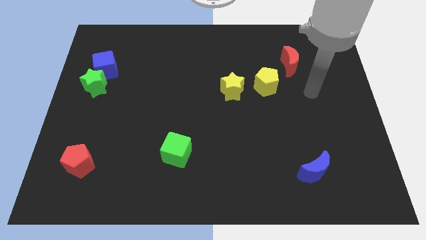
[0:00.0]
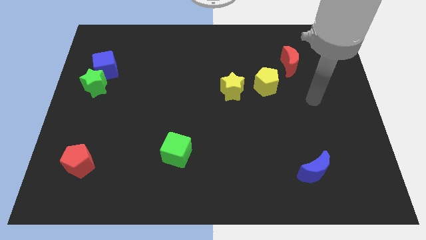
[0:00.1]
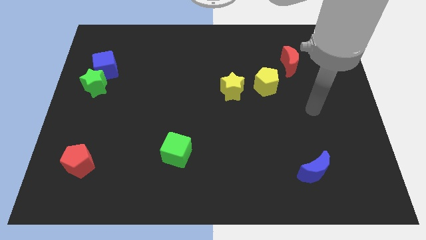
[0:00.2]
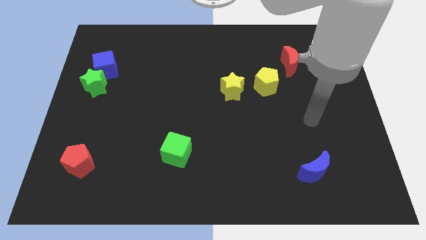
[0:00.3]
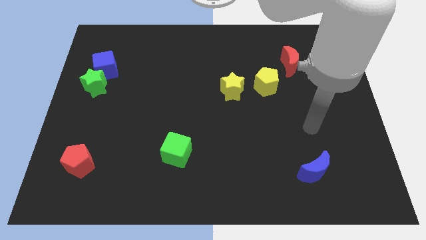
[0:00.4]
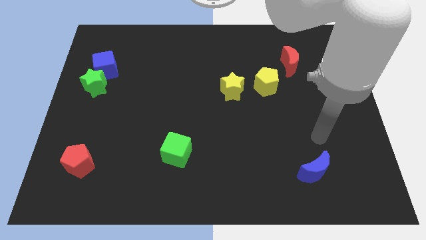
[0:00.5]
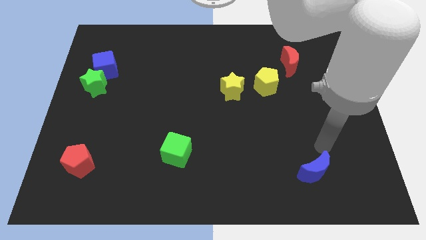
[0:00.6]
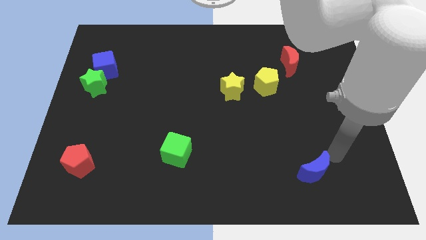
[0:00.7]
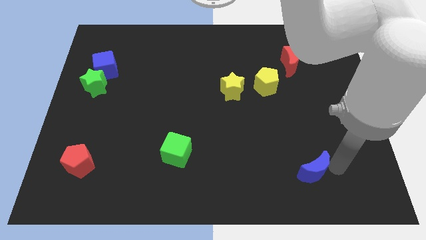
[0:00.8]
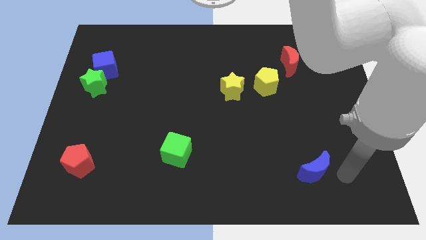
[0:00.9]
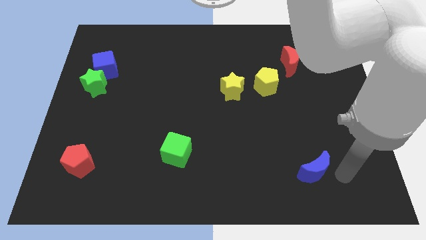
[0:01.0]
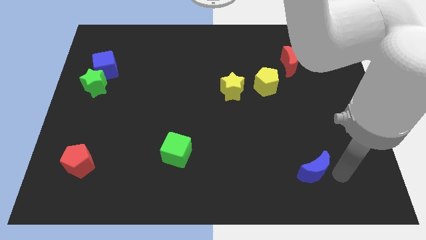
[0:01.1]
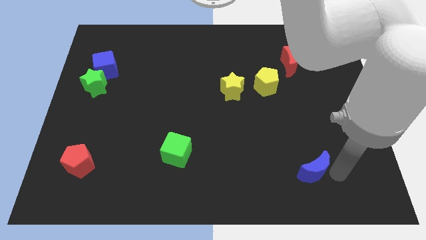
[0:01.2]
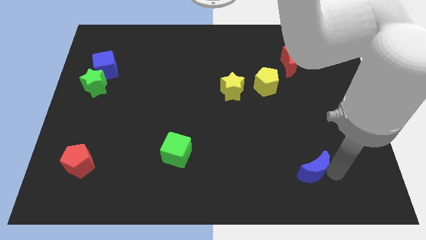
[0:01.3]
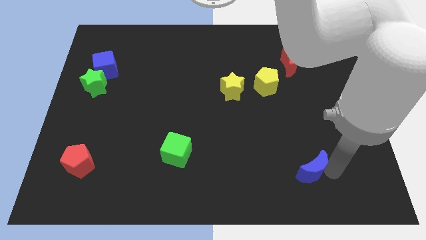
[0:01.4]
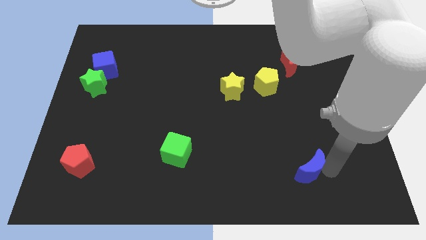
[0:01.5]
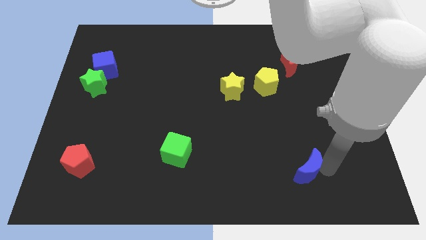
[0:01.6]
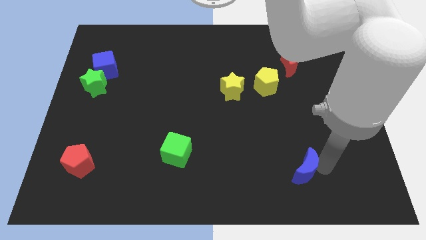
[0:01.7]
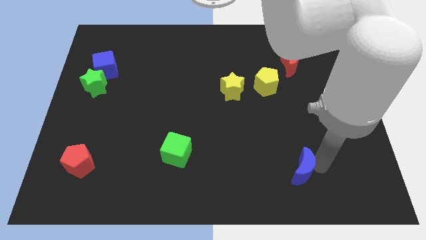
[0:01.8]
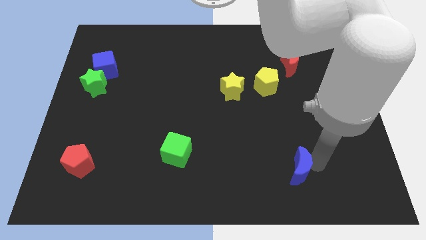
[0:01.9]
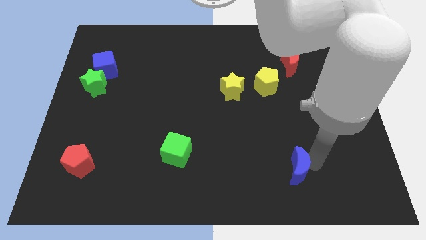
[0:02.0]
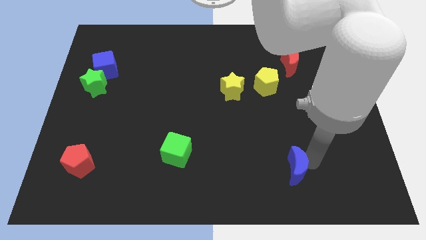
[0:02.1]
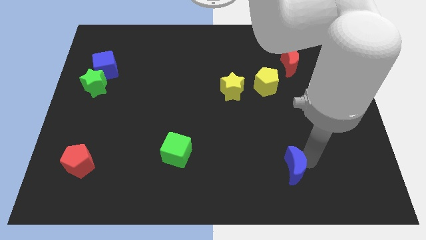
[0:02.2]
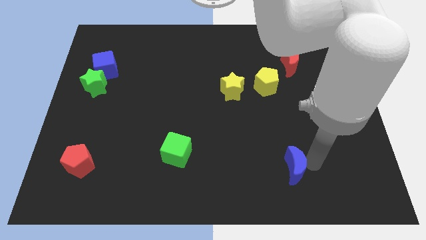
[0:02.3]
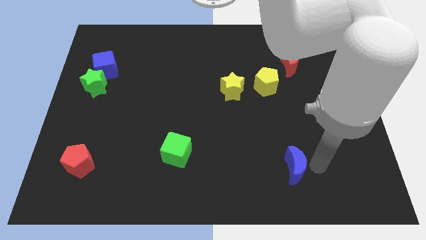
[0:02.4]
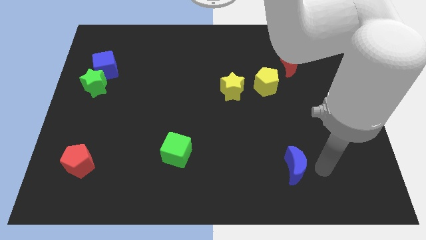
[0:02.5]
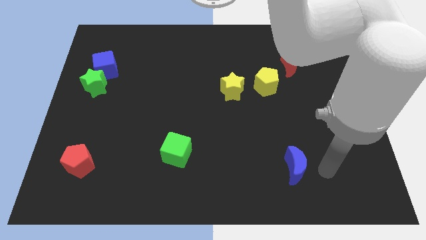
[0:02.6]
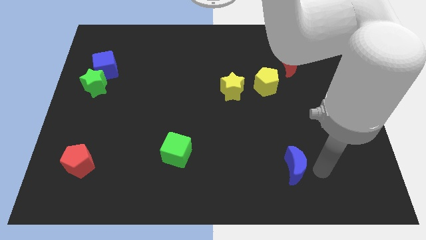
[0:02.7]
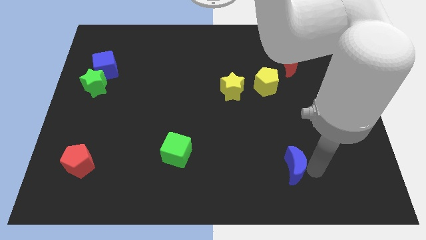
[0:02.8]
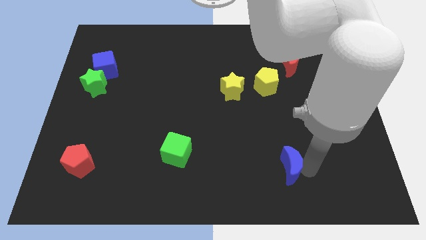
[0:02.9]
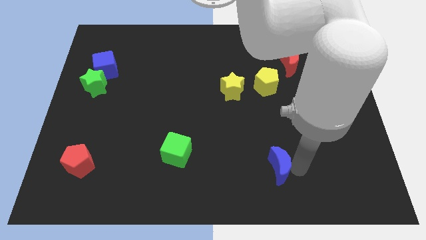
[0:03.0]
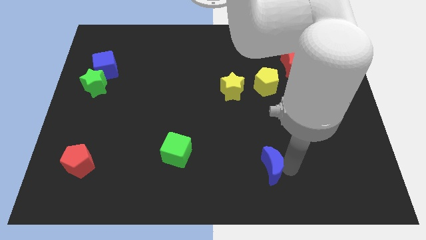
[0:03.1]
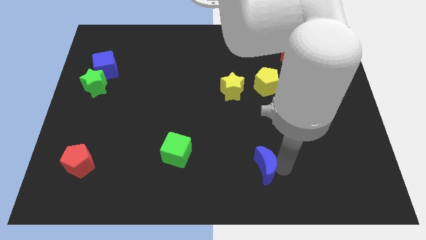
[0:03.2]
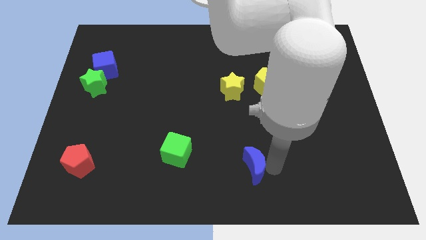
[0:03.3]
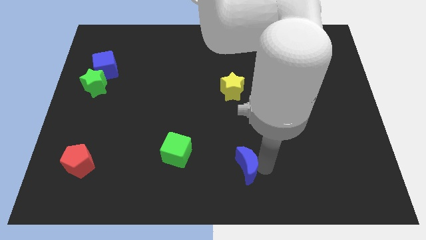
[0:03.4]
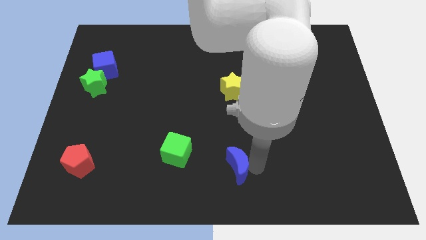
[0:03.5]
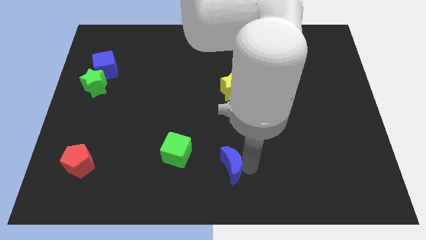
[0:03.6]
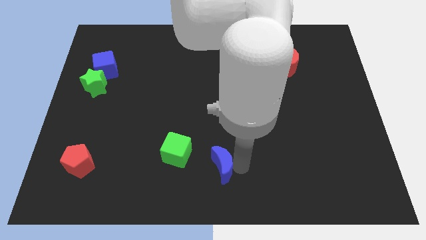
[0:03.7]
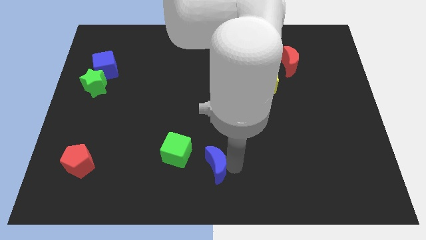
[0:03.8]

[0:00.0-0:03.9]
slide the blue moon left

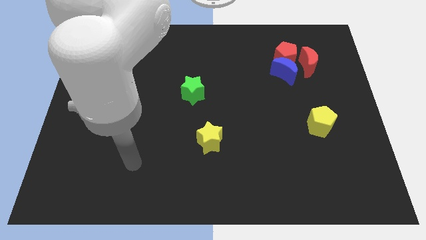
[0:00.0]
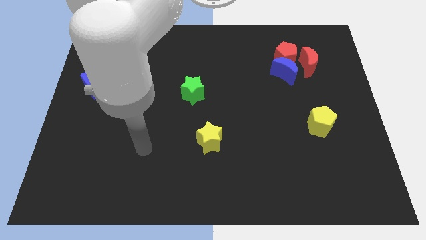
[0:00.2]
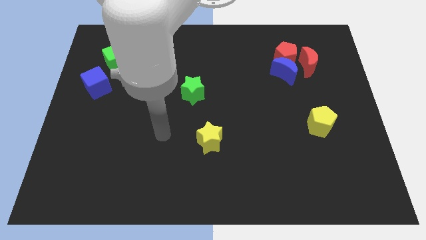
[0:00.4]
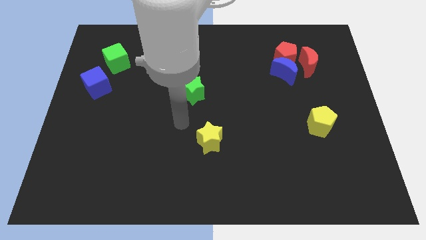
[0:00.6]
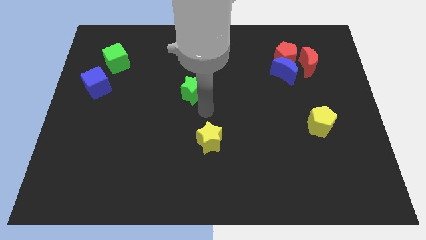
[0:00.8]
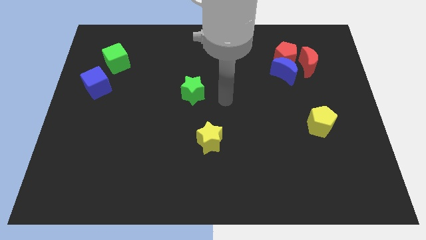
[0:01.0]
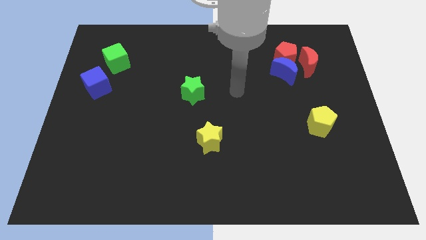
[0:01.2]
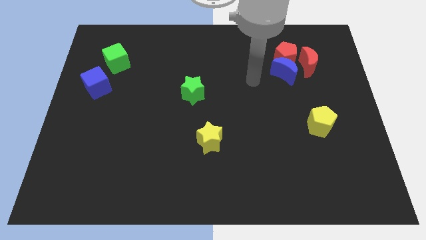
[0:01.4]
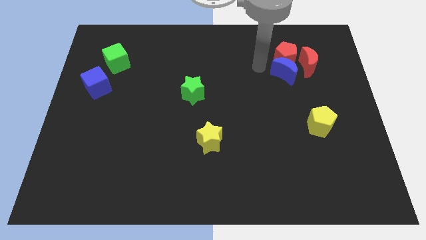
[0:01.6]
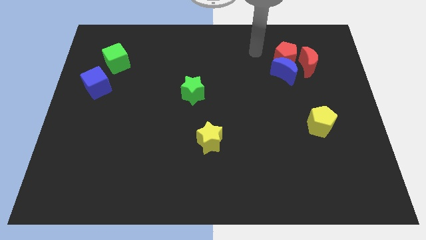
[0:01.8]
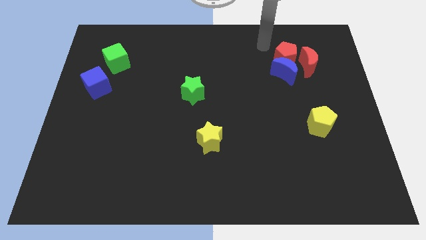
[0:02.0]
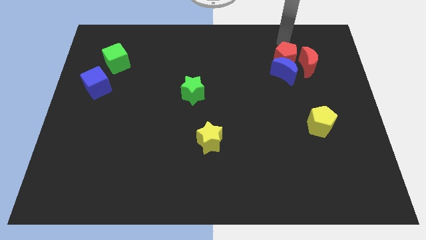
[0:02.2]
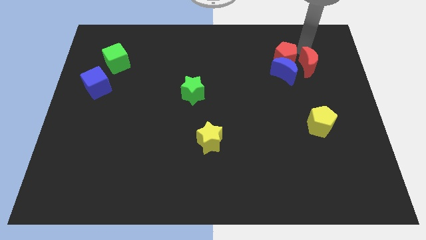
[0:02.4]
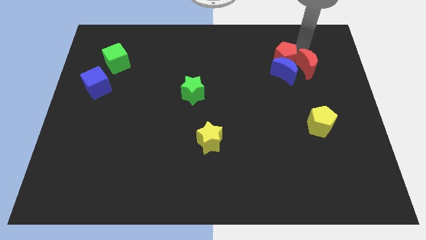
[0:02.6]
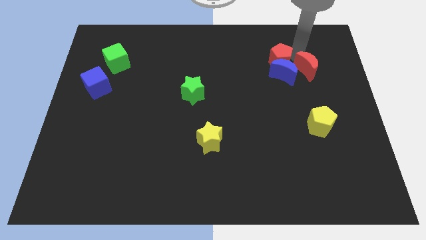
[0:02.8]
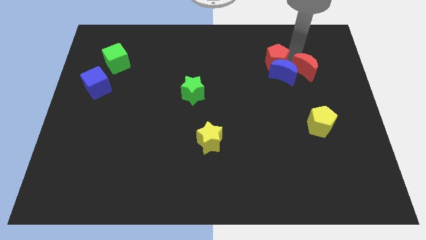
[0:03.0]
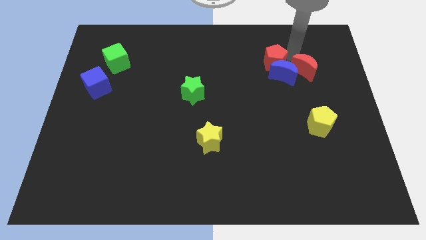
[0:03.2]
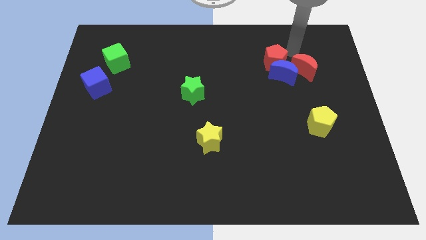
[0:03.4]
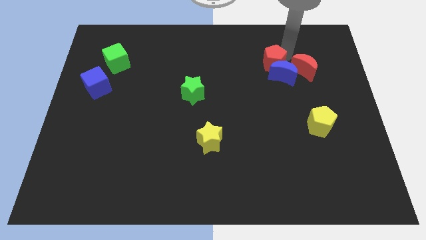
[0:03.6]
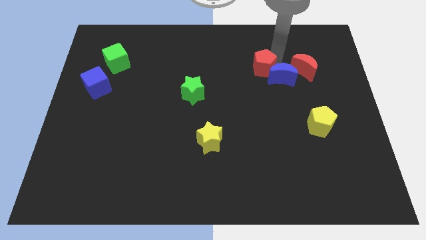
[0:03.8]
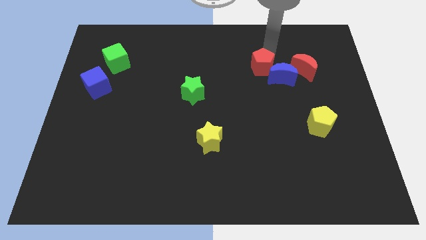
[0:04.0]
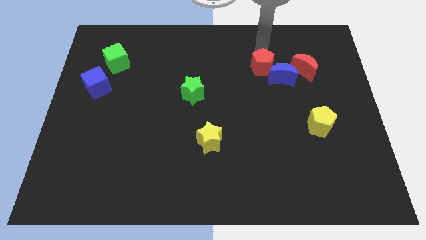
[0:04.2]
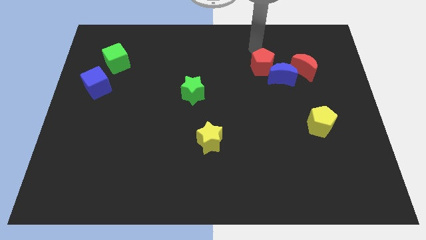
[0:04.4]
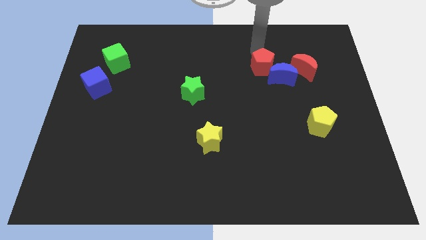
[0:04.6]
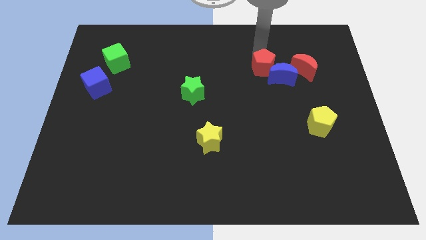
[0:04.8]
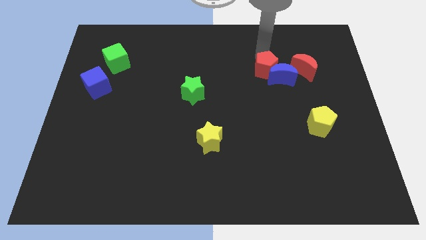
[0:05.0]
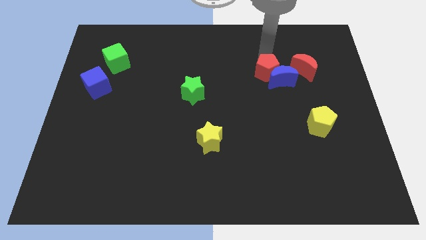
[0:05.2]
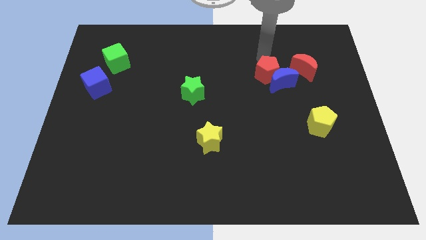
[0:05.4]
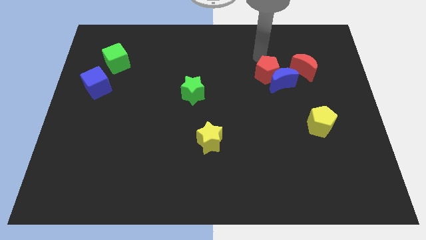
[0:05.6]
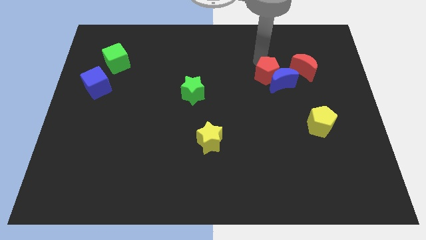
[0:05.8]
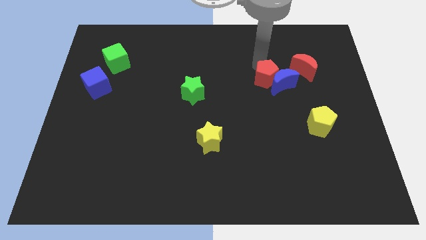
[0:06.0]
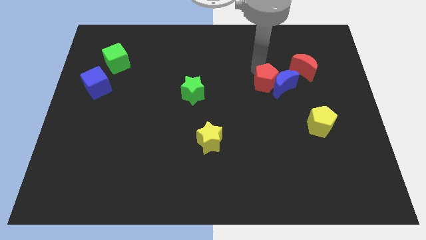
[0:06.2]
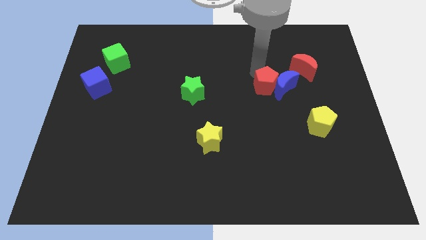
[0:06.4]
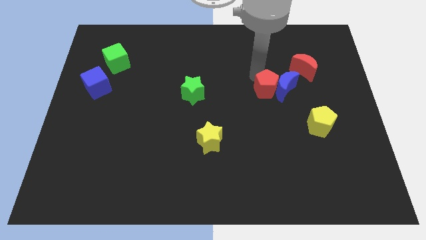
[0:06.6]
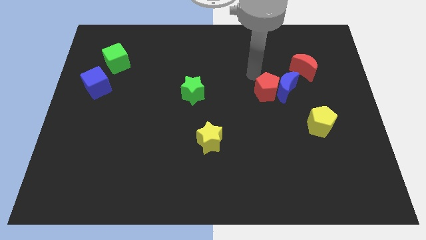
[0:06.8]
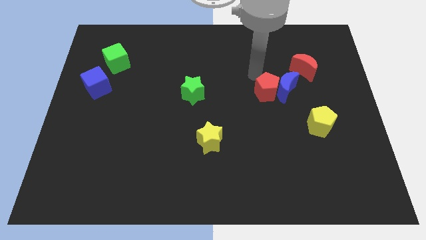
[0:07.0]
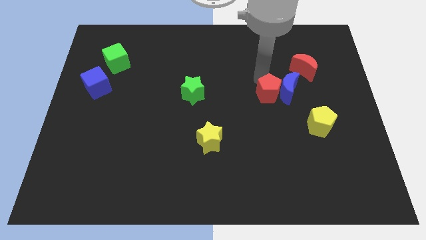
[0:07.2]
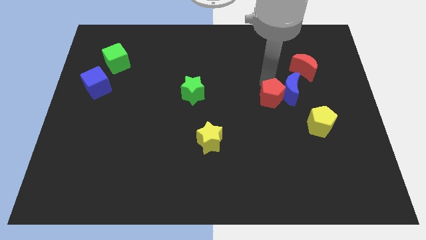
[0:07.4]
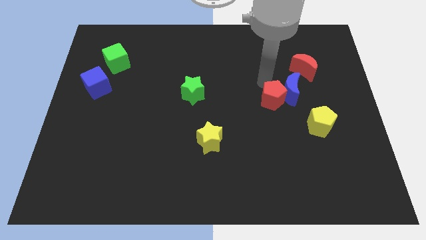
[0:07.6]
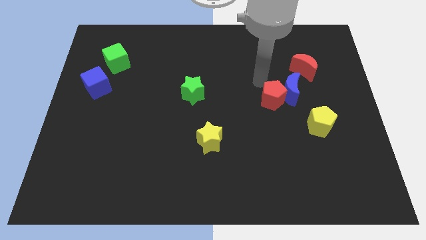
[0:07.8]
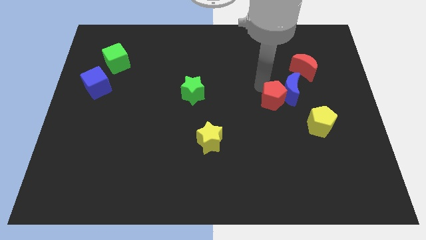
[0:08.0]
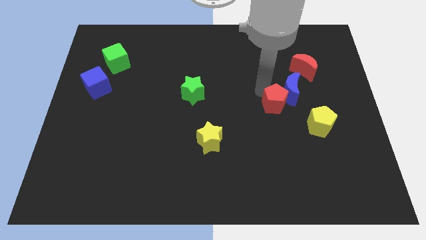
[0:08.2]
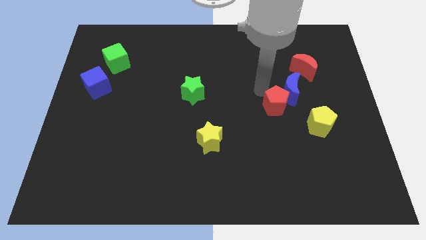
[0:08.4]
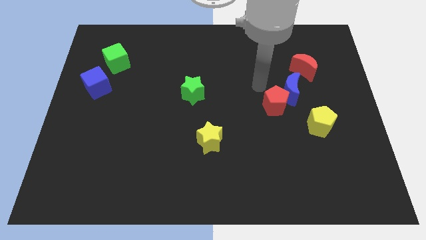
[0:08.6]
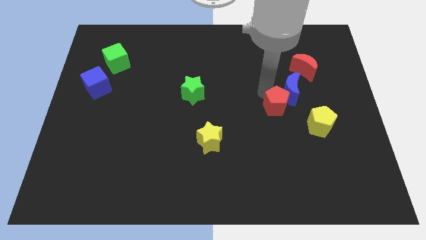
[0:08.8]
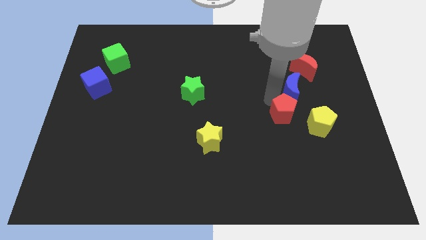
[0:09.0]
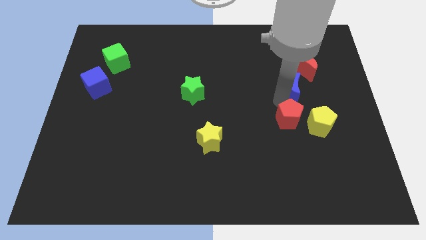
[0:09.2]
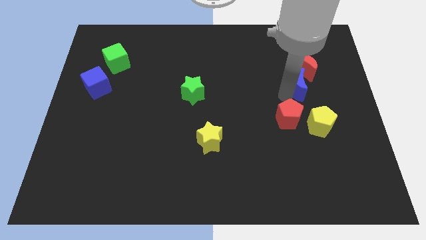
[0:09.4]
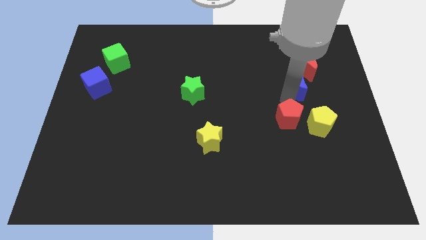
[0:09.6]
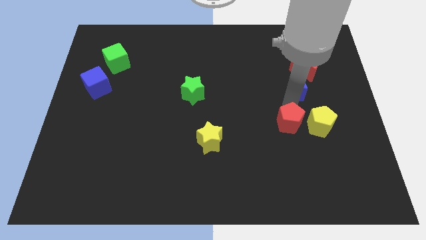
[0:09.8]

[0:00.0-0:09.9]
slide the red pentagon down
